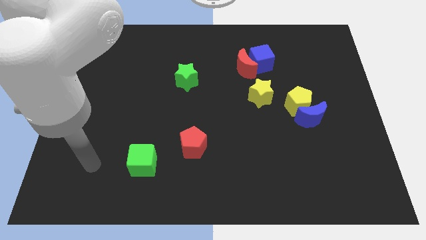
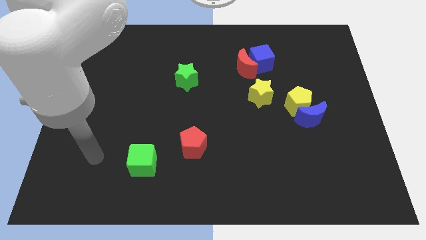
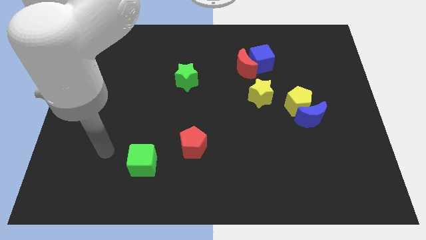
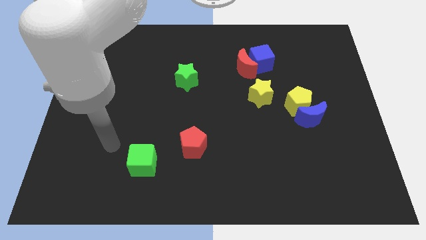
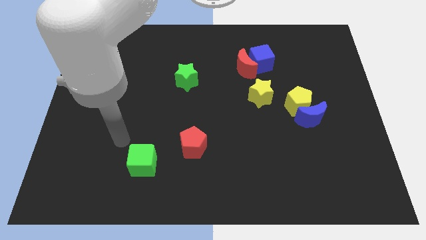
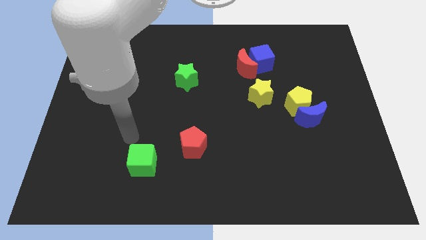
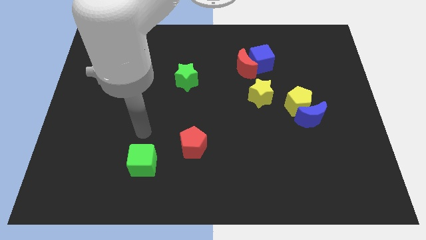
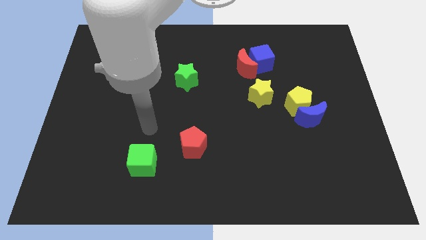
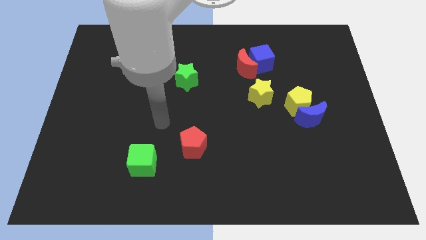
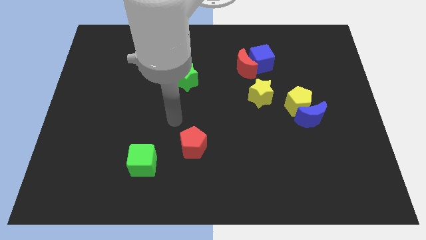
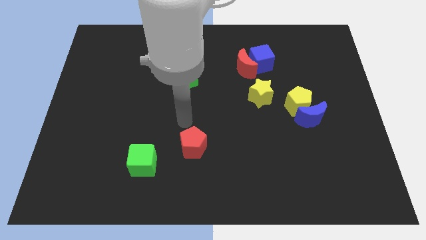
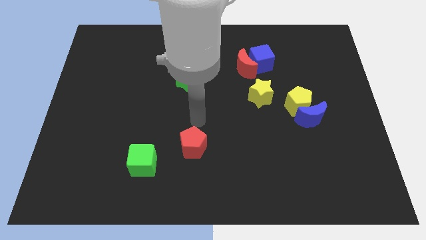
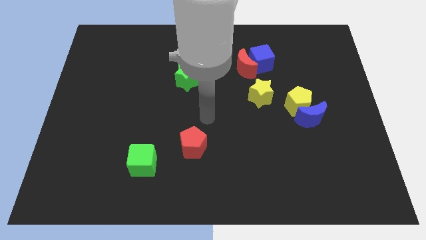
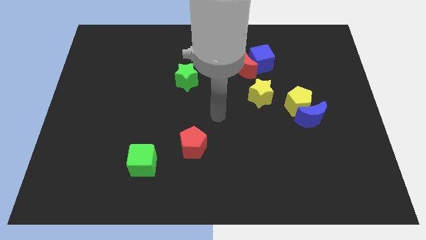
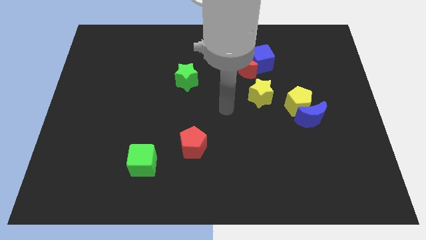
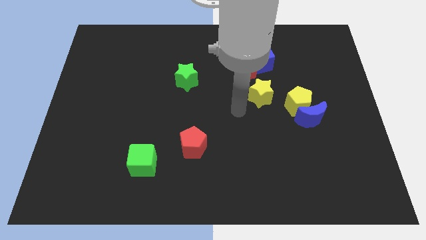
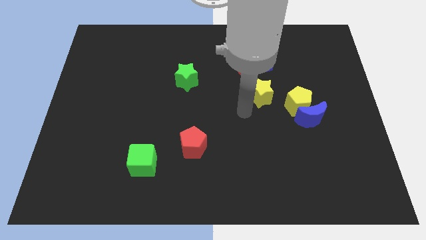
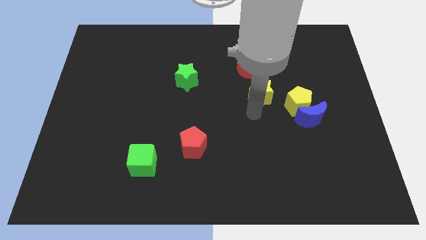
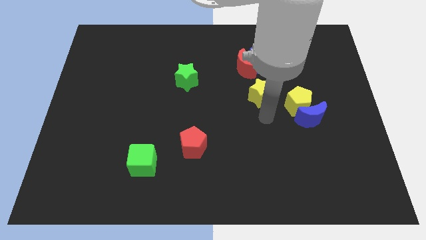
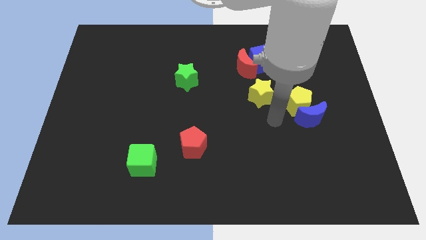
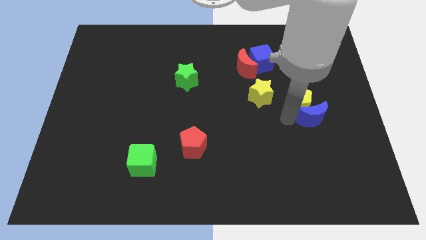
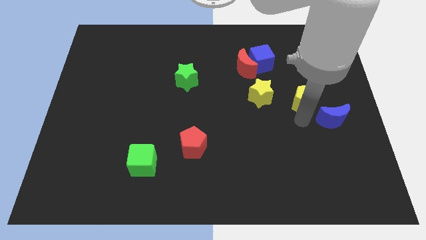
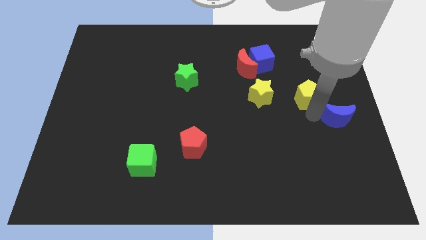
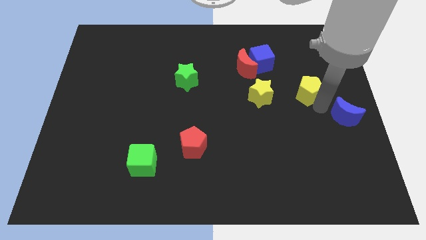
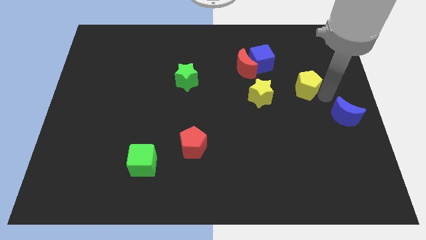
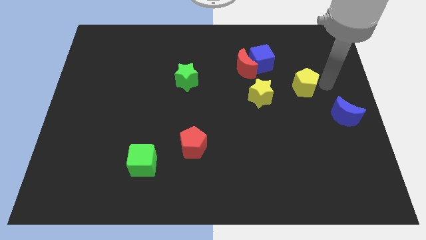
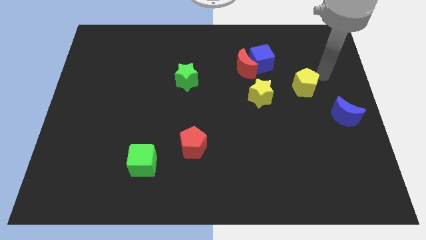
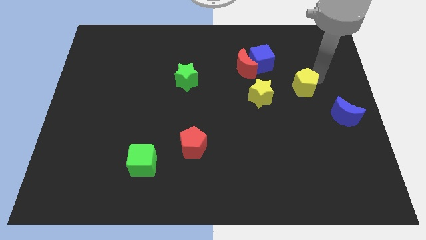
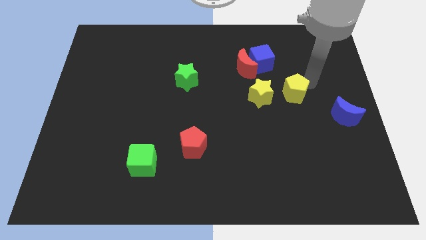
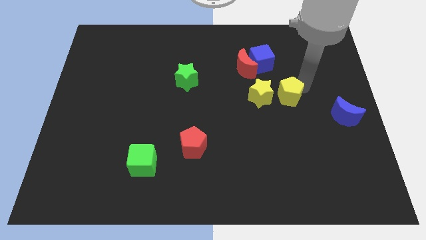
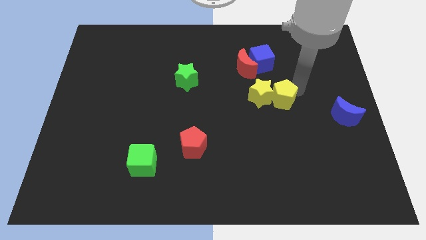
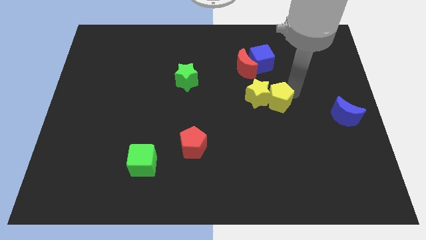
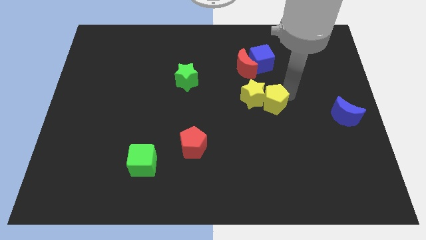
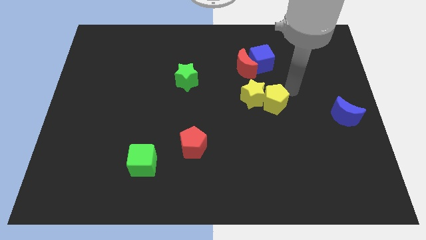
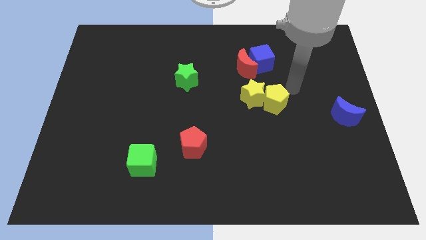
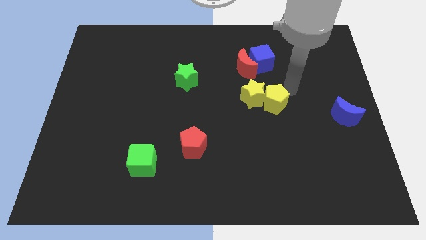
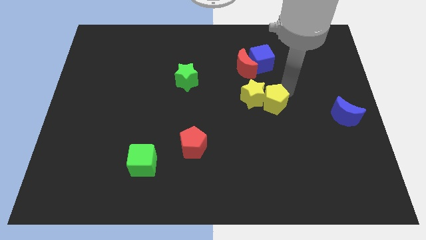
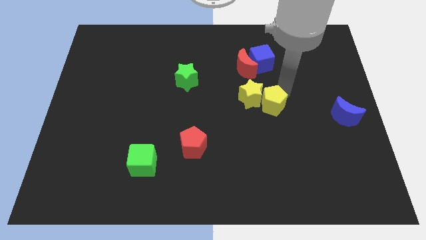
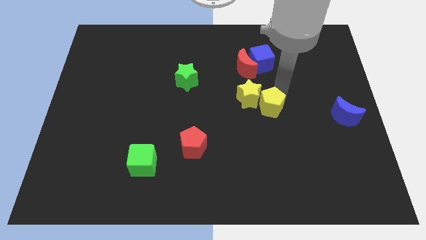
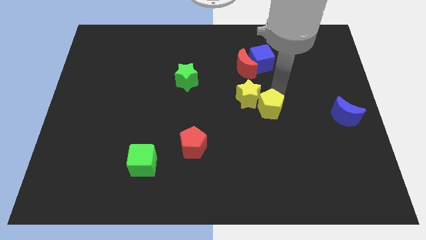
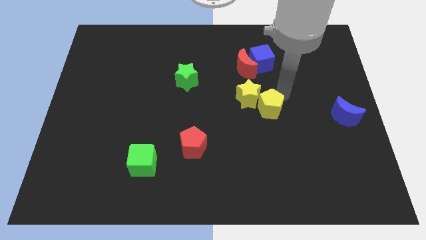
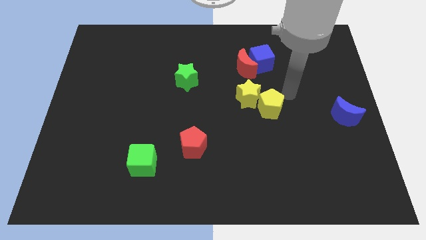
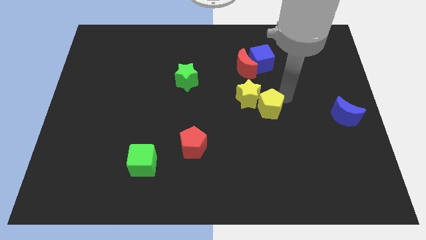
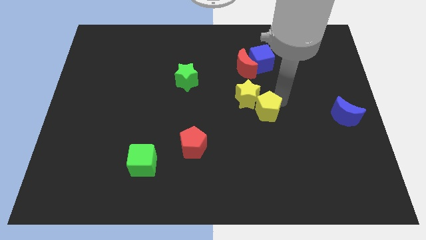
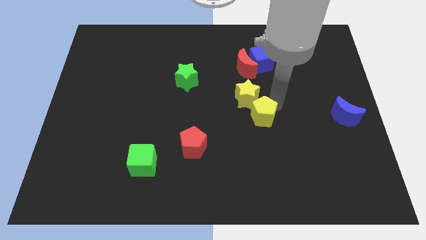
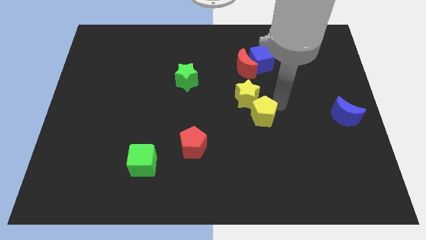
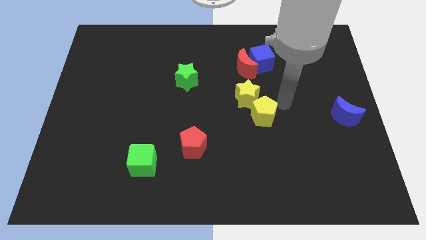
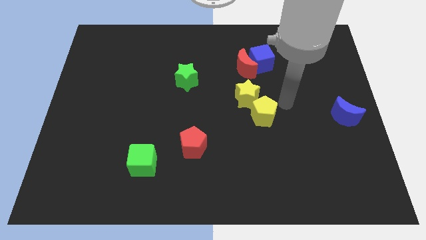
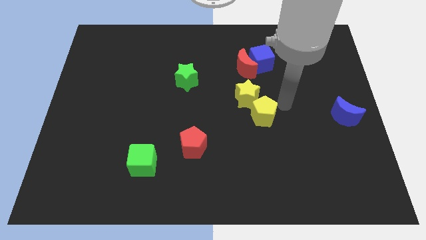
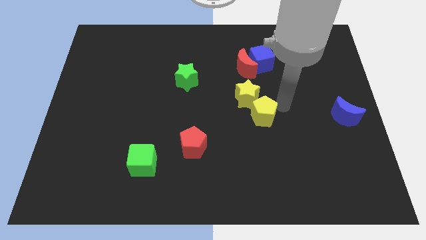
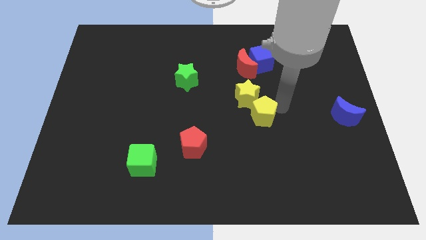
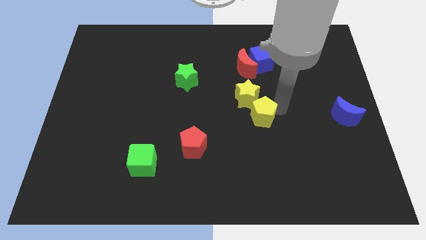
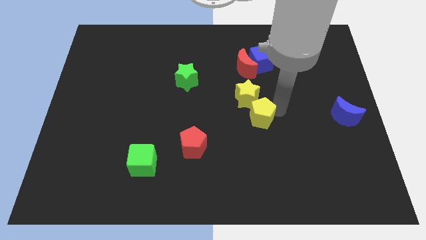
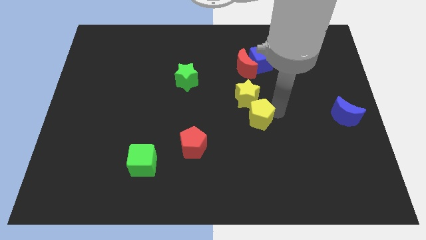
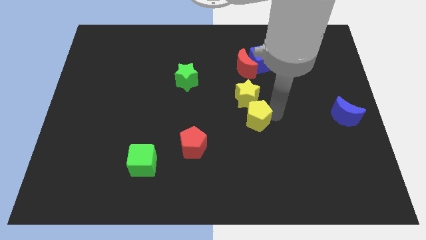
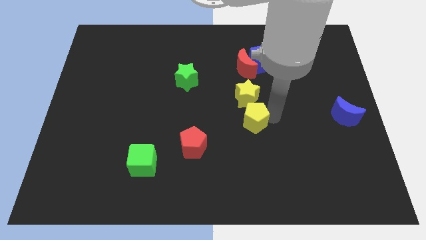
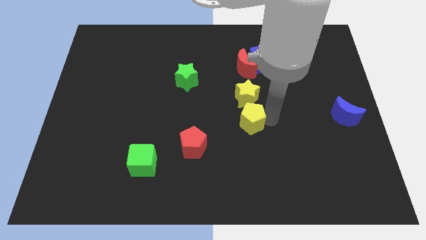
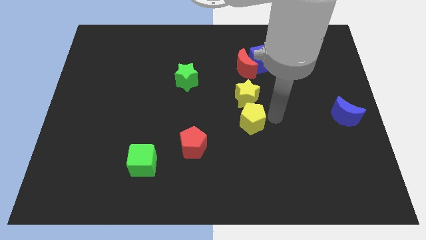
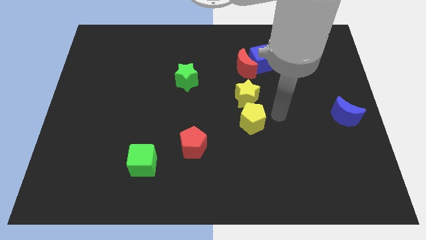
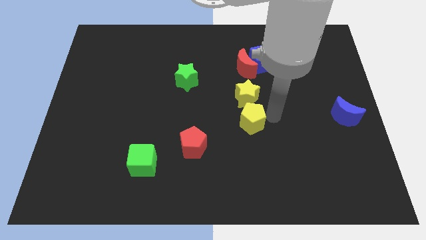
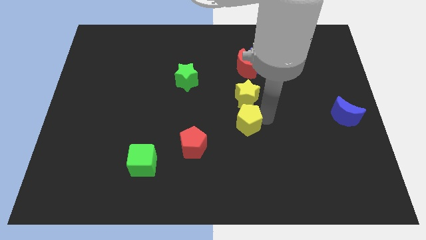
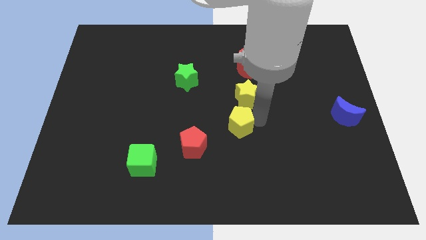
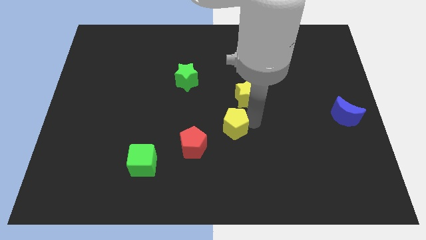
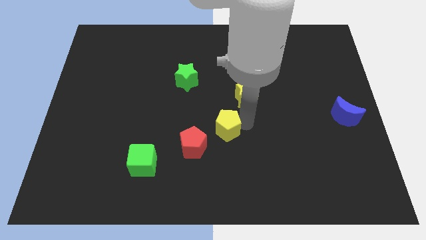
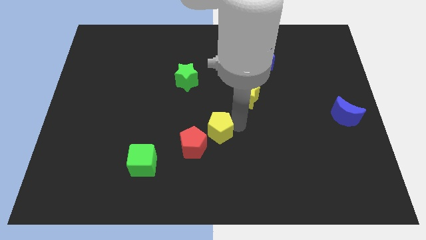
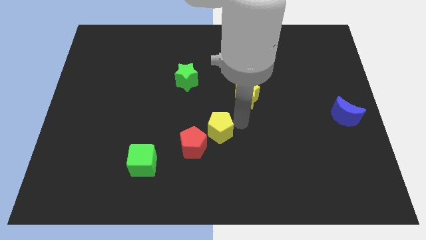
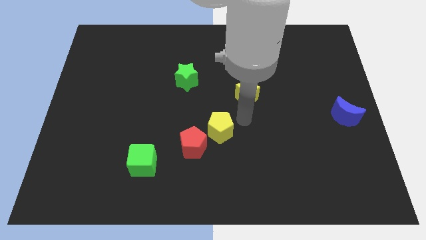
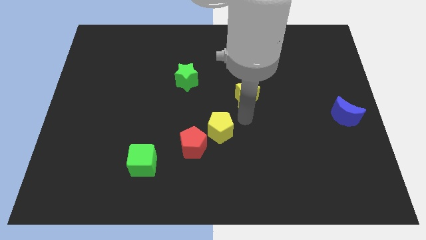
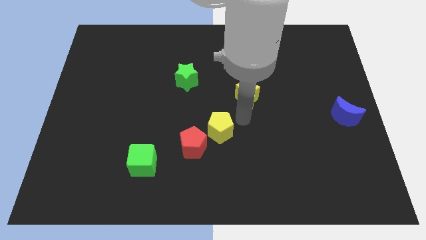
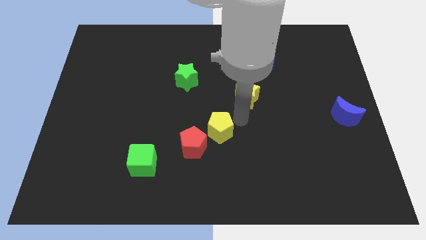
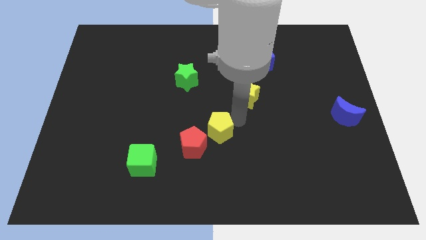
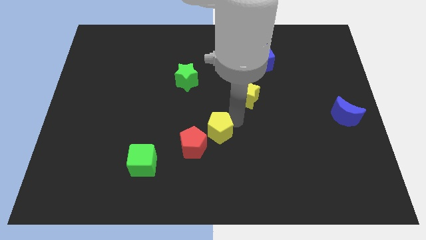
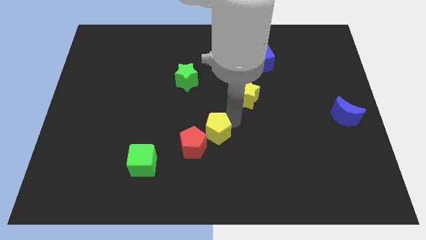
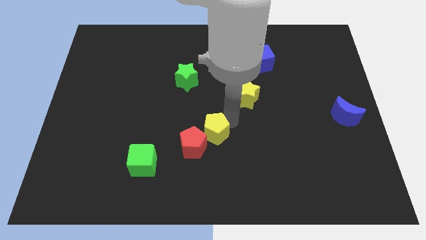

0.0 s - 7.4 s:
push the yellow pentagon to the red pentagon
